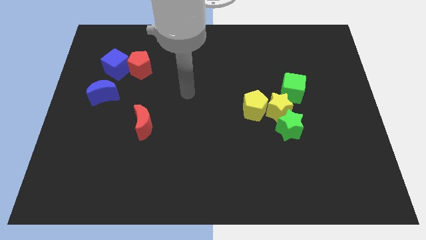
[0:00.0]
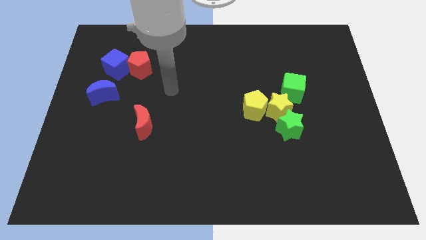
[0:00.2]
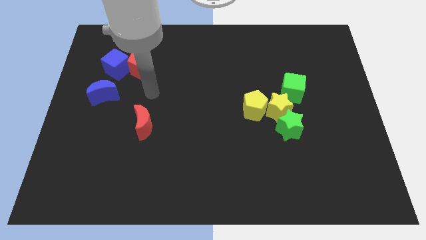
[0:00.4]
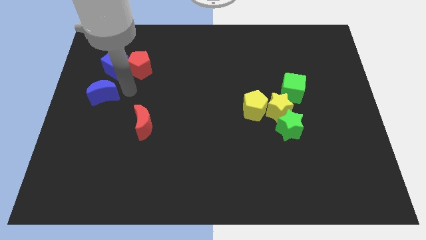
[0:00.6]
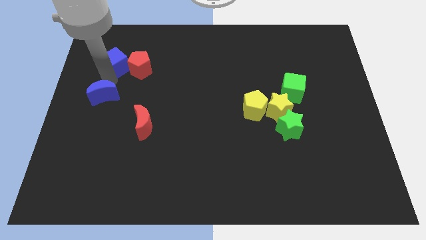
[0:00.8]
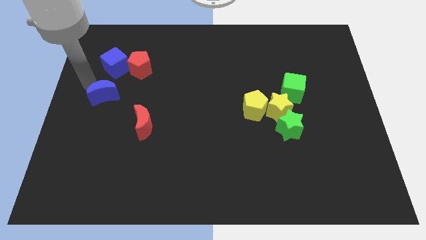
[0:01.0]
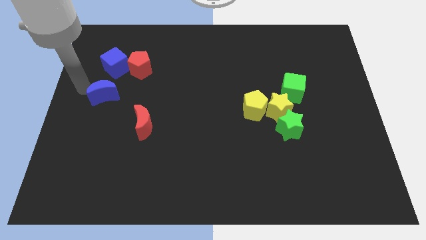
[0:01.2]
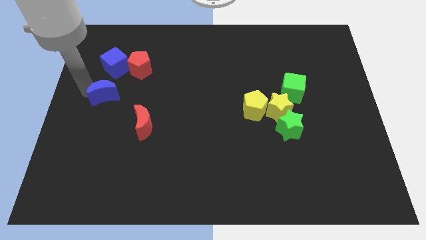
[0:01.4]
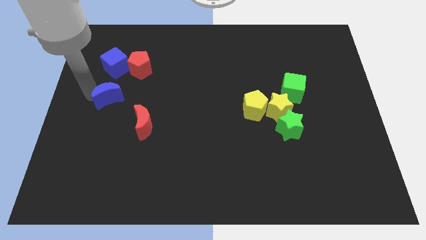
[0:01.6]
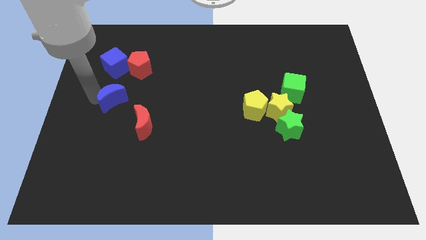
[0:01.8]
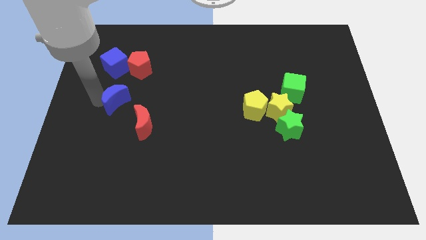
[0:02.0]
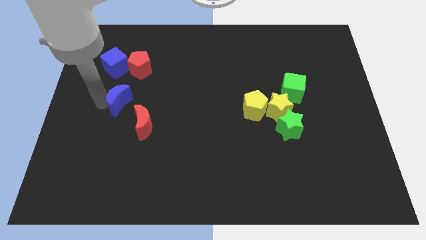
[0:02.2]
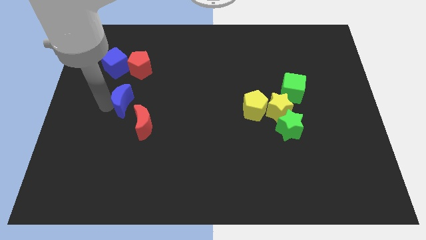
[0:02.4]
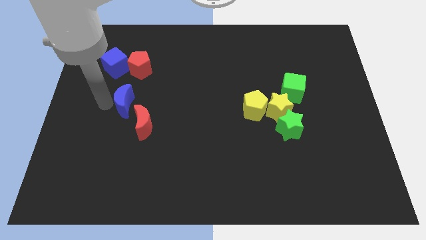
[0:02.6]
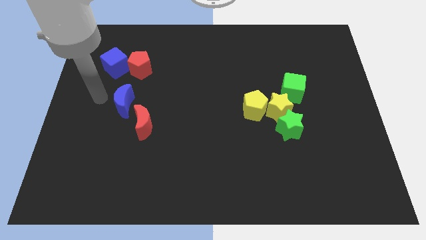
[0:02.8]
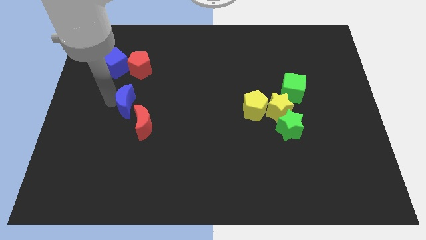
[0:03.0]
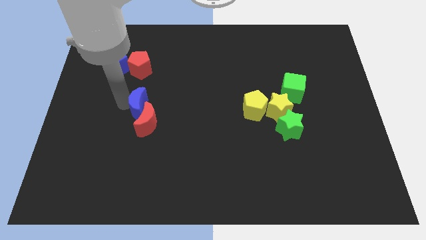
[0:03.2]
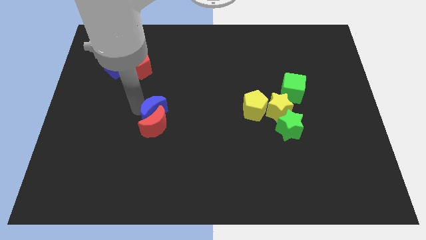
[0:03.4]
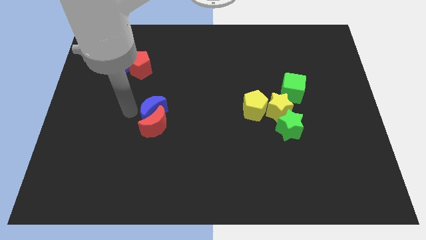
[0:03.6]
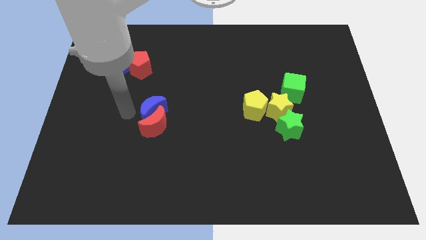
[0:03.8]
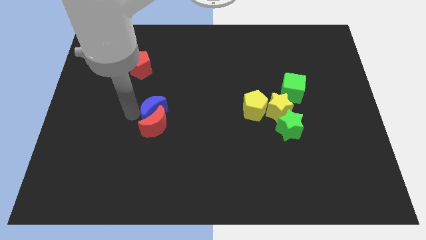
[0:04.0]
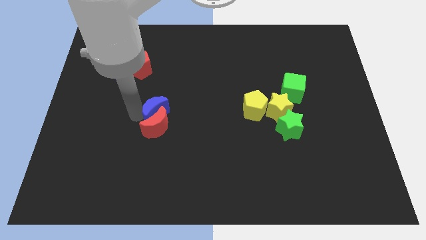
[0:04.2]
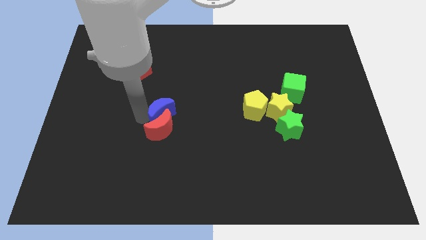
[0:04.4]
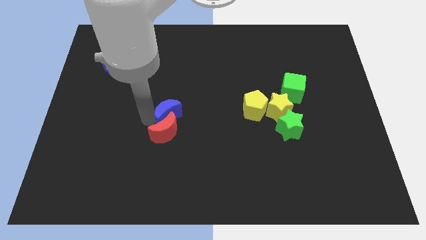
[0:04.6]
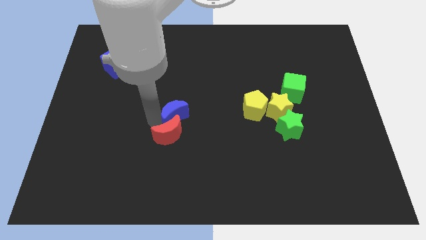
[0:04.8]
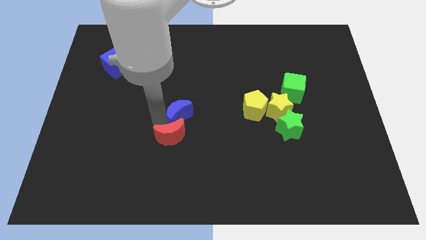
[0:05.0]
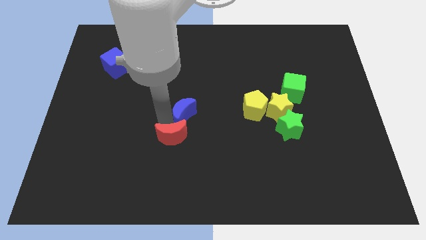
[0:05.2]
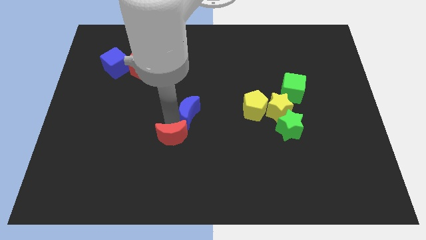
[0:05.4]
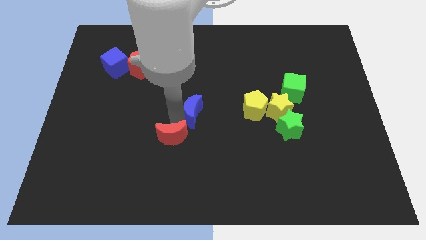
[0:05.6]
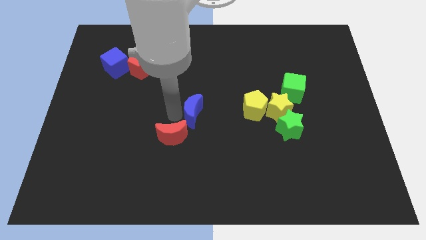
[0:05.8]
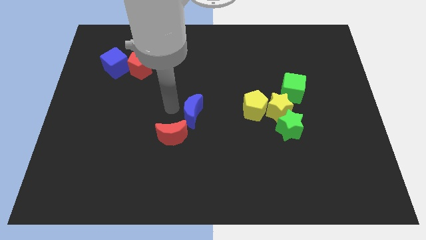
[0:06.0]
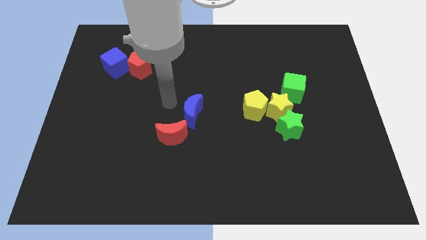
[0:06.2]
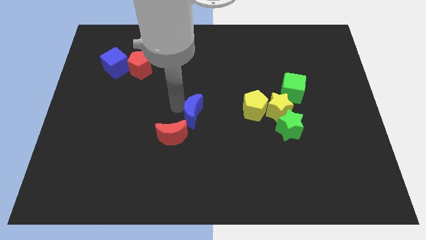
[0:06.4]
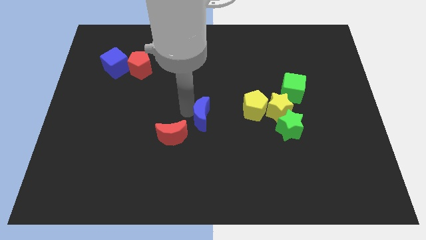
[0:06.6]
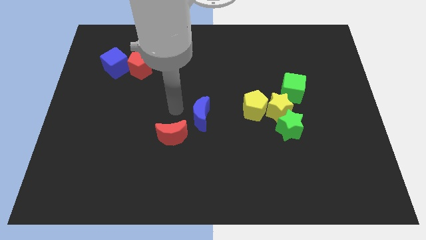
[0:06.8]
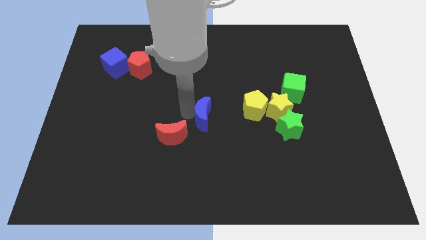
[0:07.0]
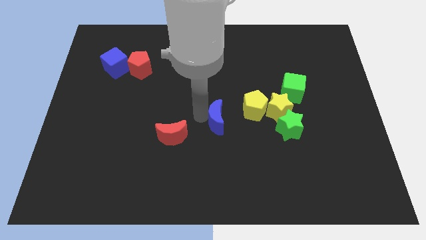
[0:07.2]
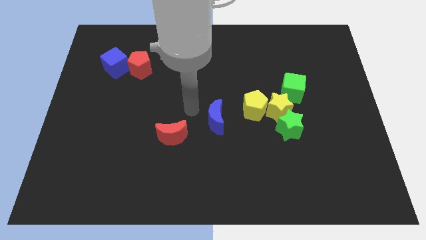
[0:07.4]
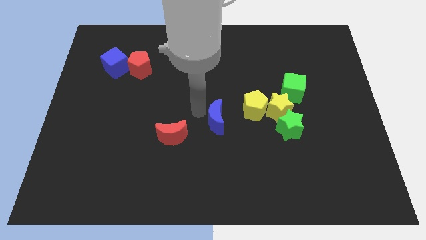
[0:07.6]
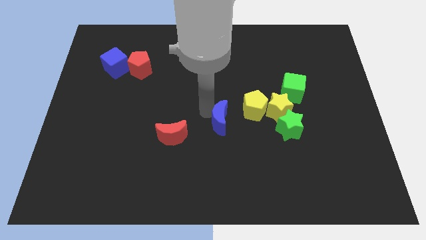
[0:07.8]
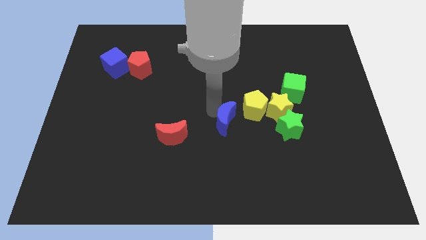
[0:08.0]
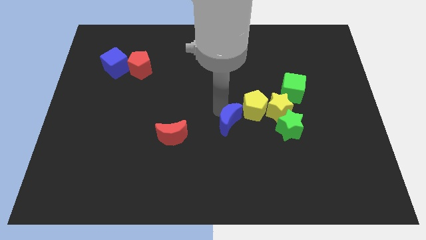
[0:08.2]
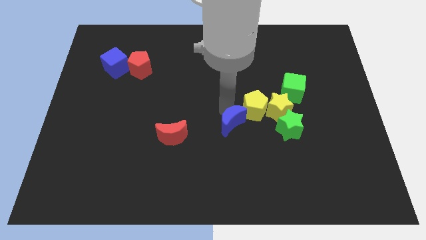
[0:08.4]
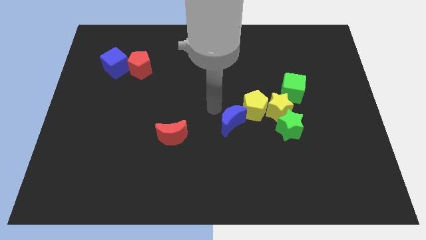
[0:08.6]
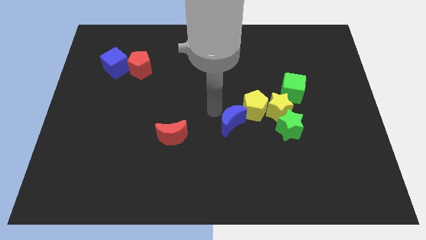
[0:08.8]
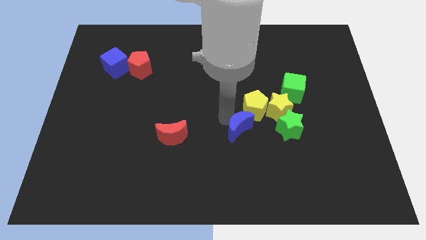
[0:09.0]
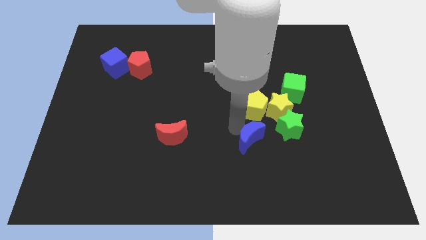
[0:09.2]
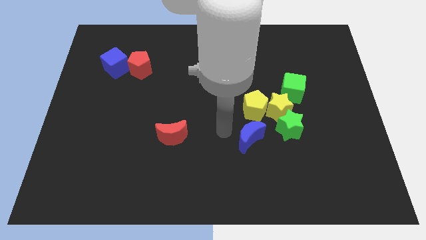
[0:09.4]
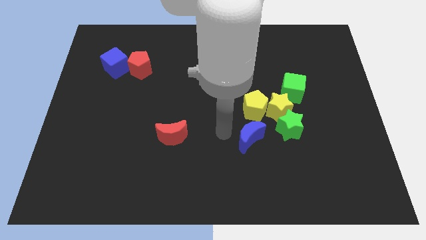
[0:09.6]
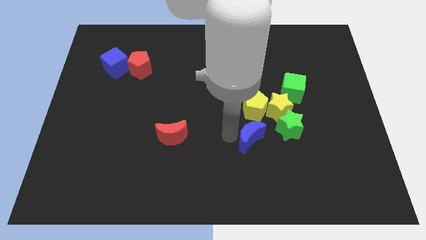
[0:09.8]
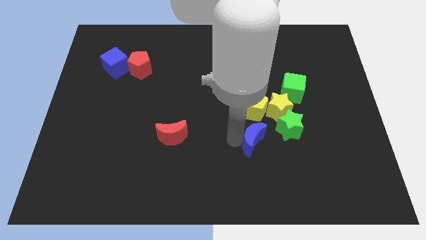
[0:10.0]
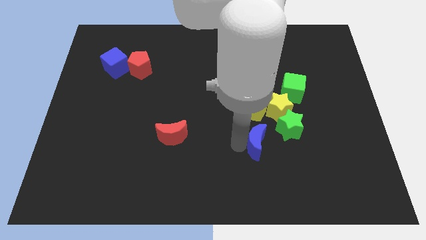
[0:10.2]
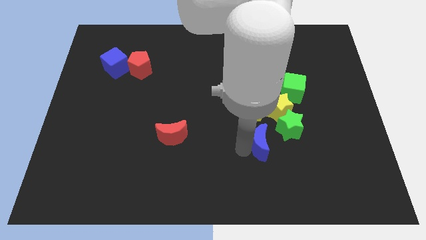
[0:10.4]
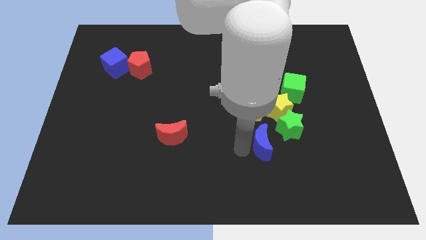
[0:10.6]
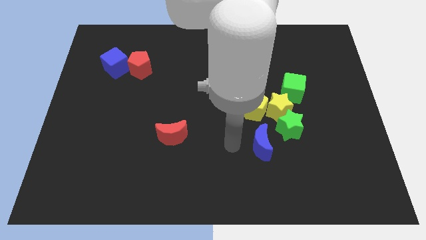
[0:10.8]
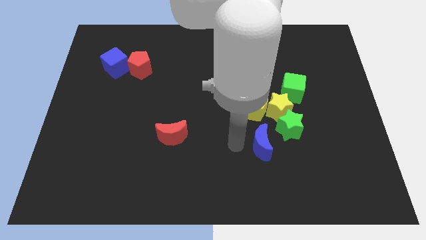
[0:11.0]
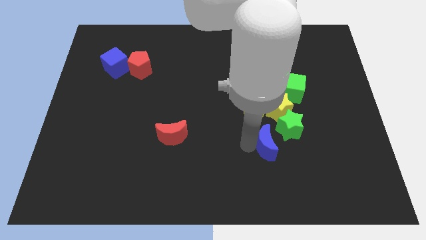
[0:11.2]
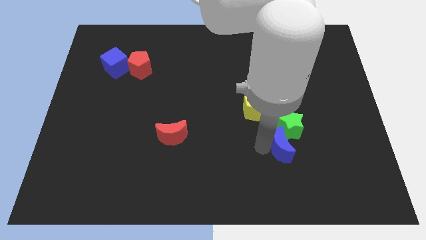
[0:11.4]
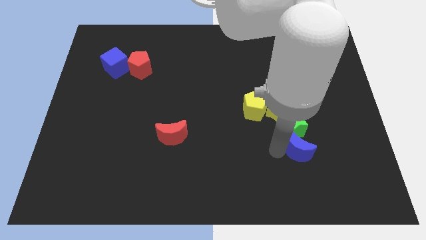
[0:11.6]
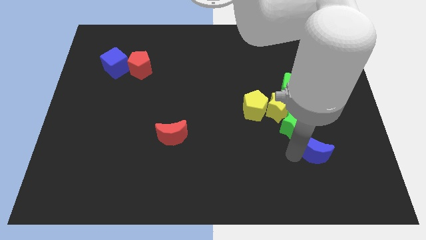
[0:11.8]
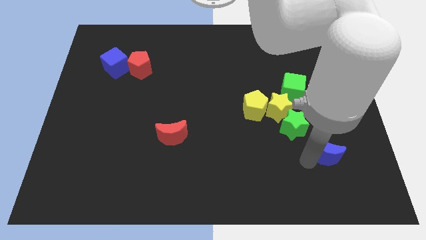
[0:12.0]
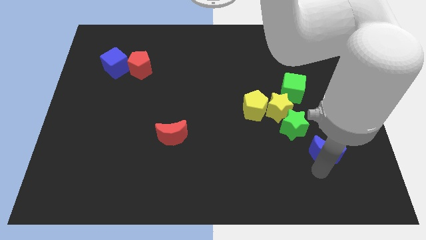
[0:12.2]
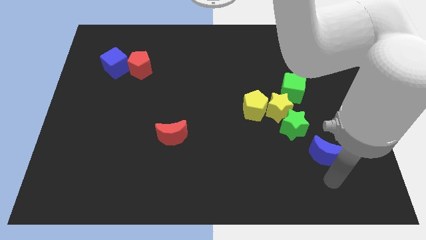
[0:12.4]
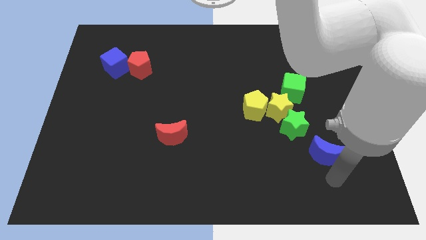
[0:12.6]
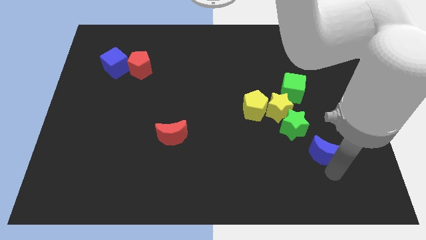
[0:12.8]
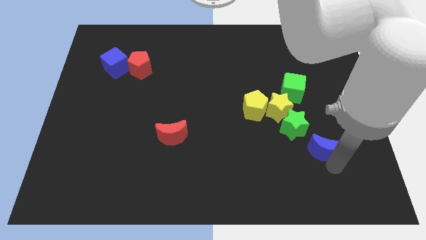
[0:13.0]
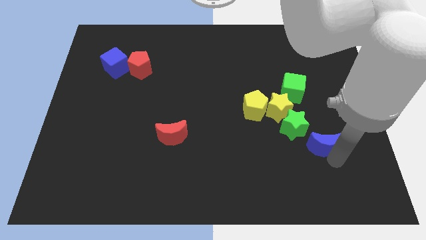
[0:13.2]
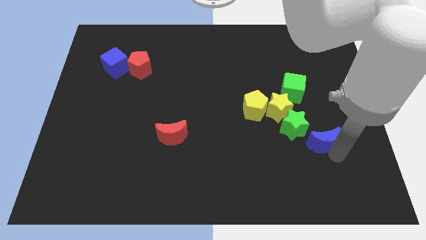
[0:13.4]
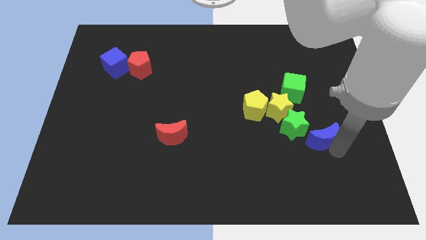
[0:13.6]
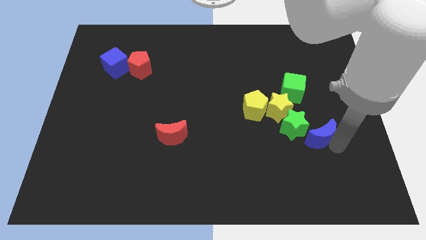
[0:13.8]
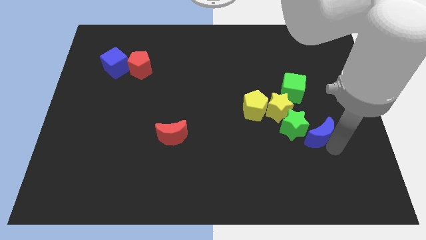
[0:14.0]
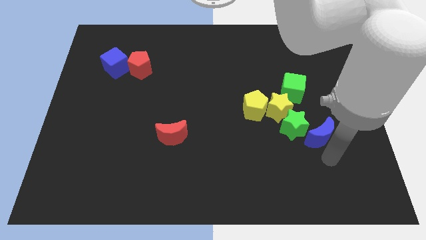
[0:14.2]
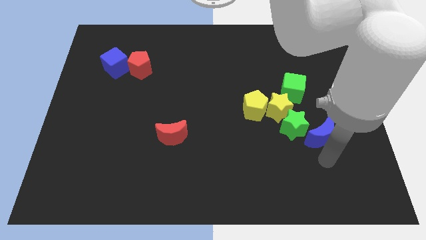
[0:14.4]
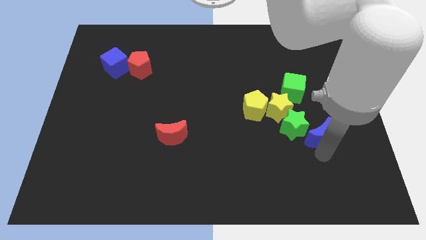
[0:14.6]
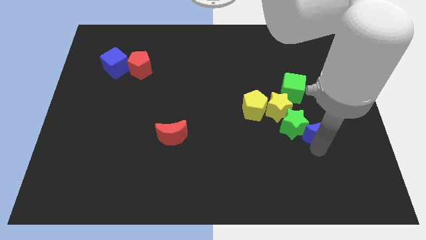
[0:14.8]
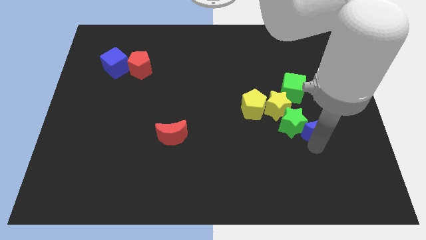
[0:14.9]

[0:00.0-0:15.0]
move the blue moon diagonally up and to the right of the green star
